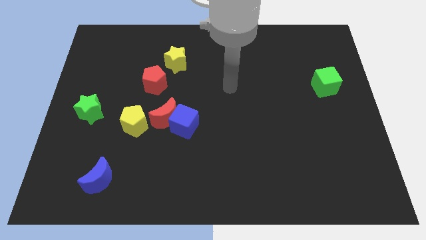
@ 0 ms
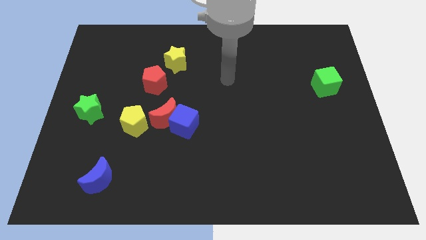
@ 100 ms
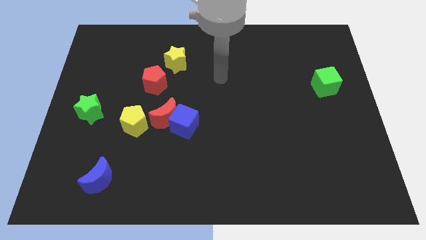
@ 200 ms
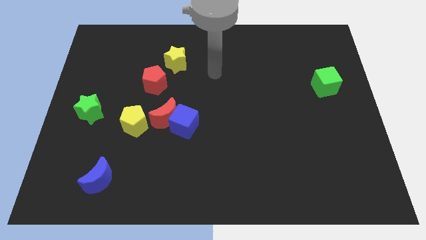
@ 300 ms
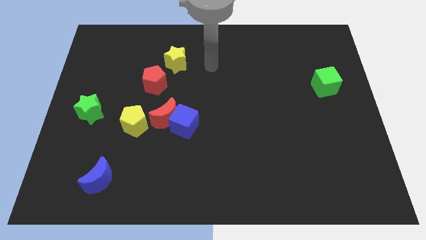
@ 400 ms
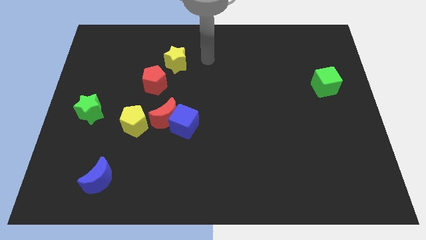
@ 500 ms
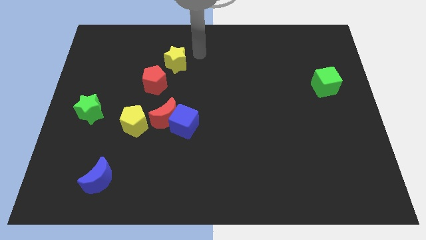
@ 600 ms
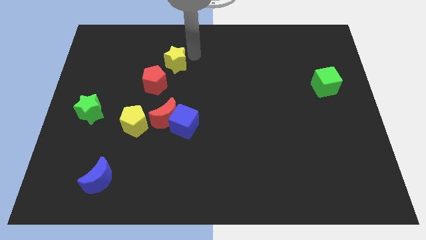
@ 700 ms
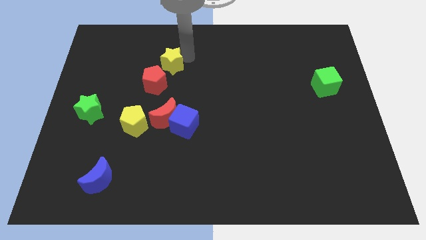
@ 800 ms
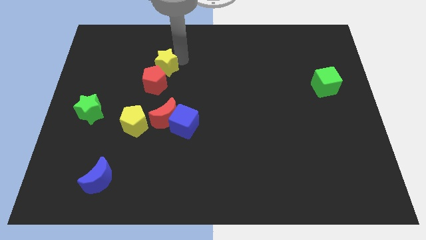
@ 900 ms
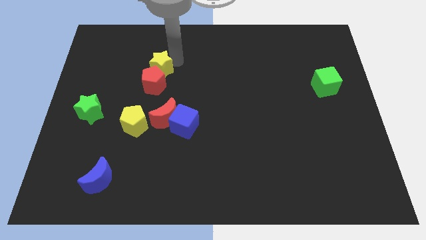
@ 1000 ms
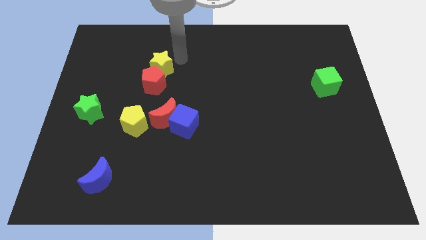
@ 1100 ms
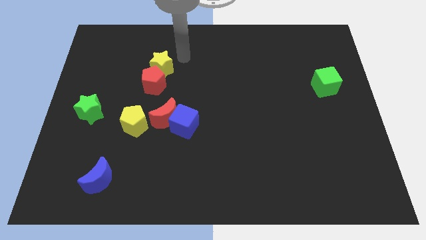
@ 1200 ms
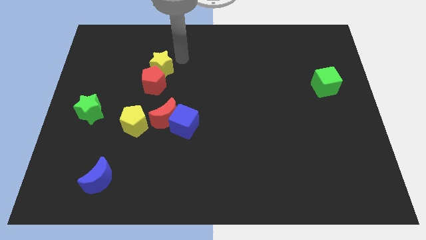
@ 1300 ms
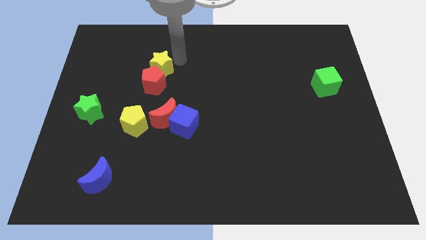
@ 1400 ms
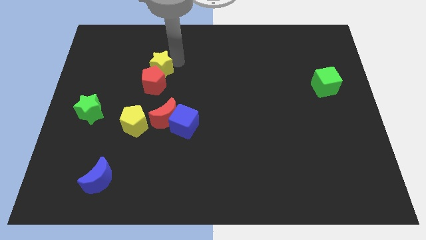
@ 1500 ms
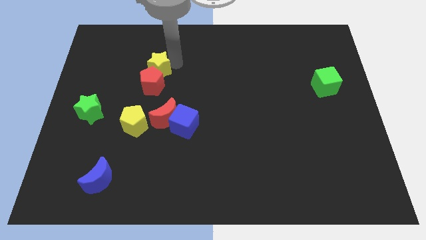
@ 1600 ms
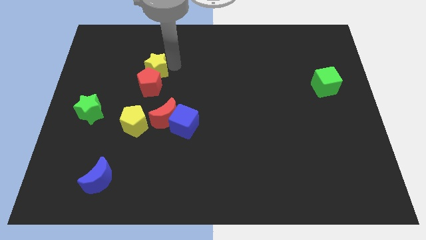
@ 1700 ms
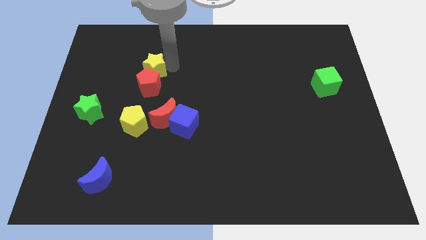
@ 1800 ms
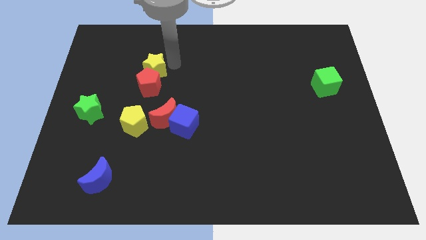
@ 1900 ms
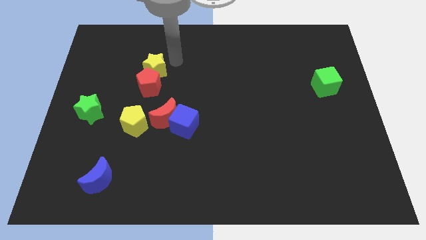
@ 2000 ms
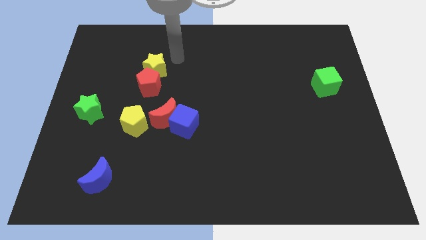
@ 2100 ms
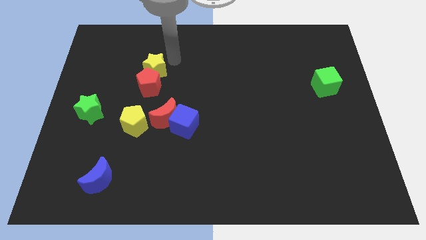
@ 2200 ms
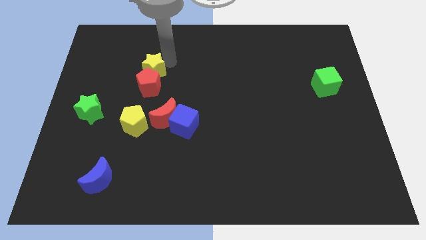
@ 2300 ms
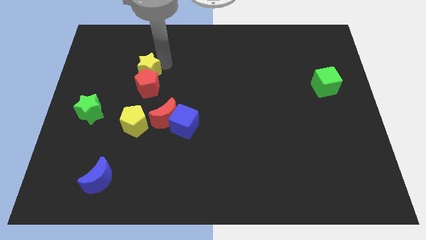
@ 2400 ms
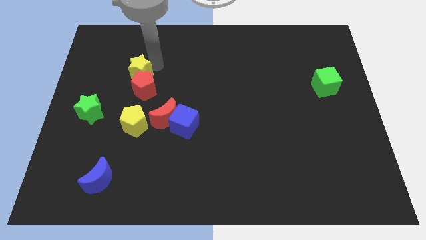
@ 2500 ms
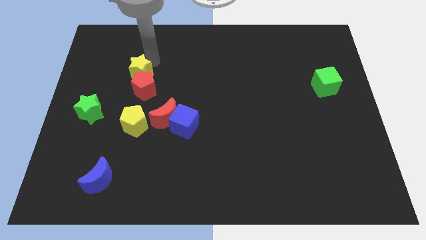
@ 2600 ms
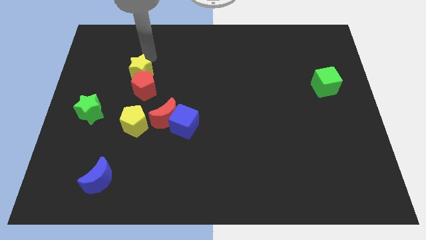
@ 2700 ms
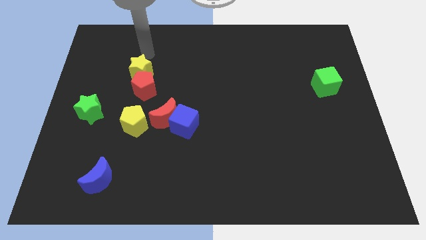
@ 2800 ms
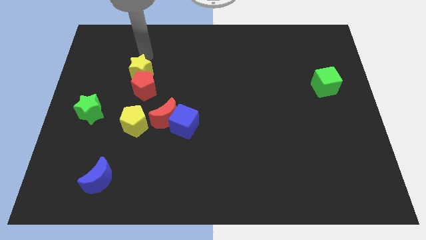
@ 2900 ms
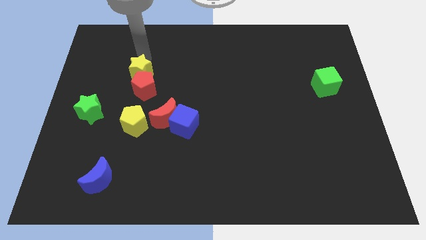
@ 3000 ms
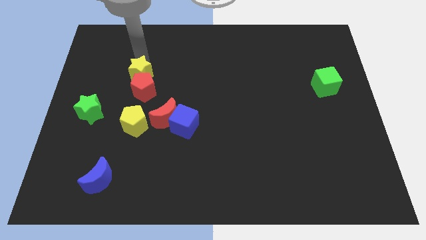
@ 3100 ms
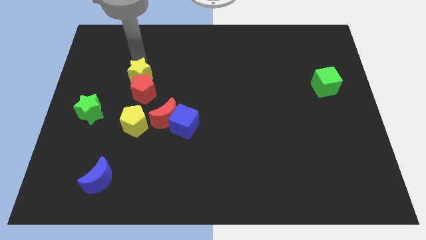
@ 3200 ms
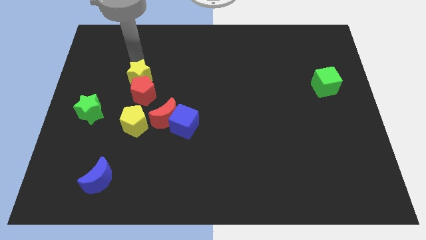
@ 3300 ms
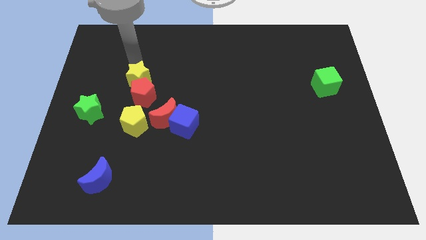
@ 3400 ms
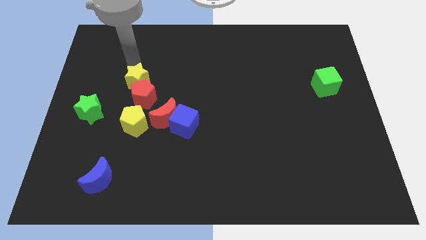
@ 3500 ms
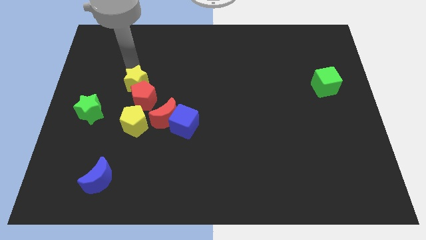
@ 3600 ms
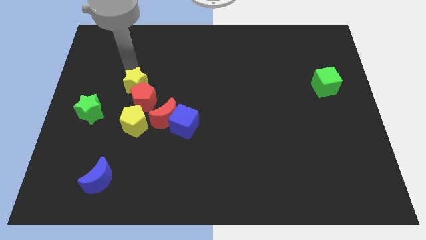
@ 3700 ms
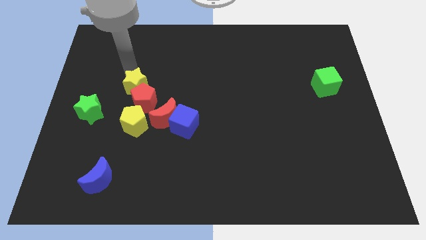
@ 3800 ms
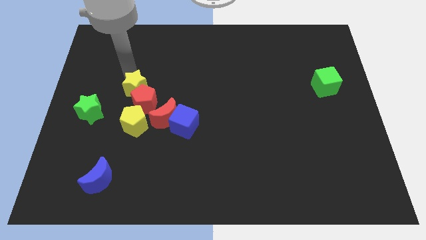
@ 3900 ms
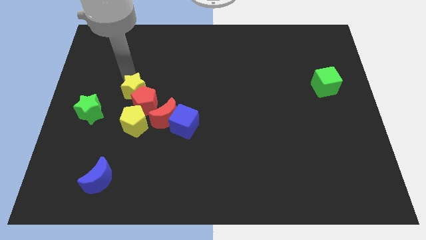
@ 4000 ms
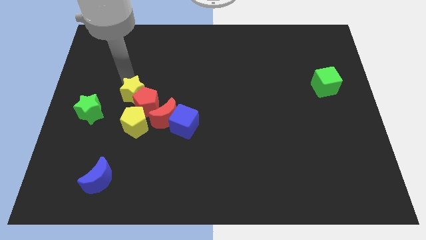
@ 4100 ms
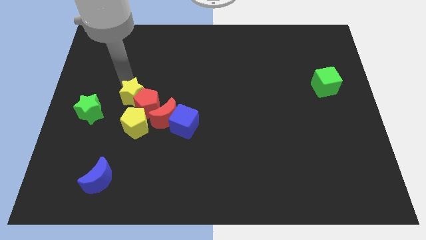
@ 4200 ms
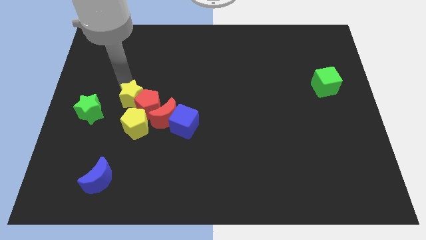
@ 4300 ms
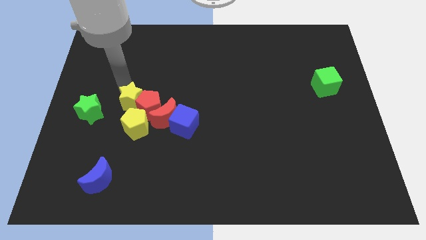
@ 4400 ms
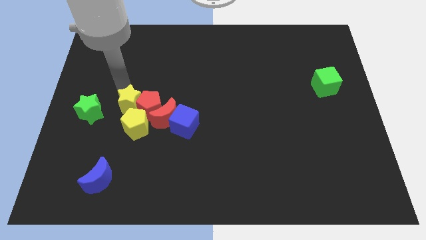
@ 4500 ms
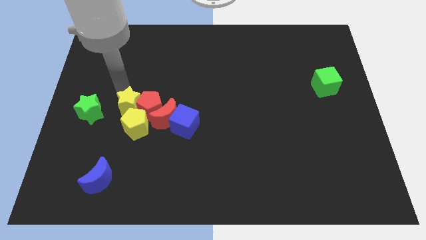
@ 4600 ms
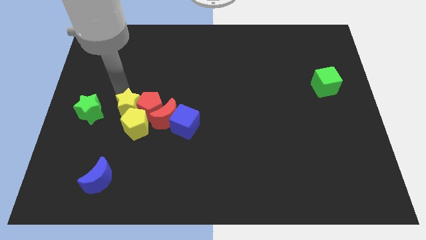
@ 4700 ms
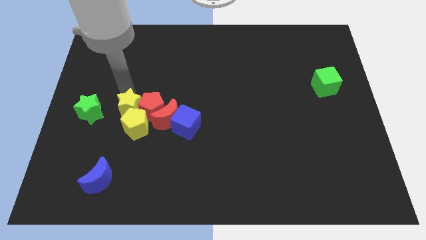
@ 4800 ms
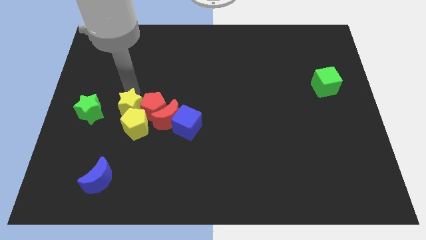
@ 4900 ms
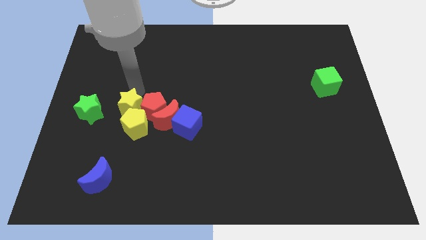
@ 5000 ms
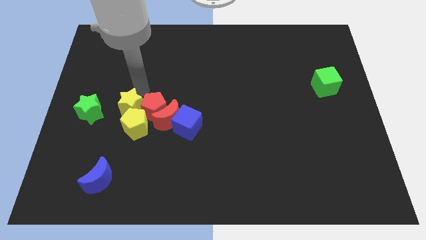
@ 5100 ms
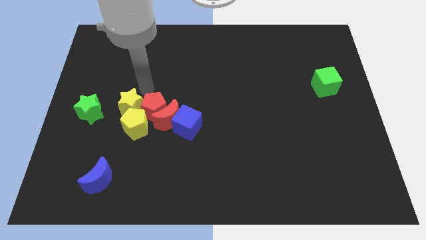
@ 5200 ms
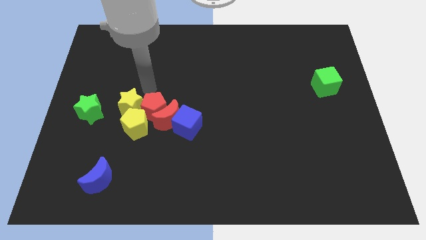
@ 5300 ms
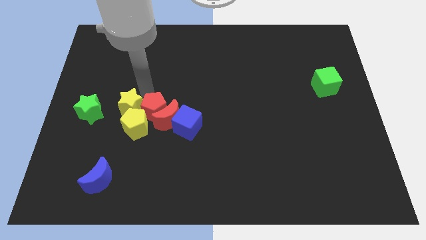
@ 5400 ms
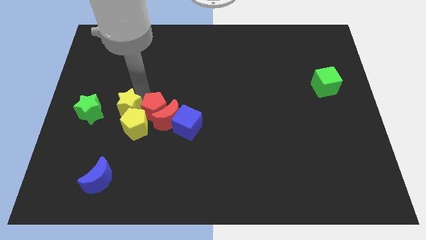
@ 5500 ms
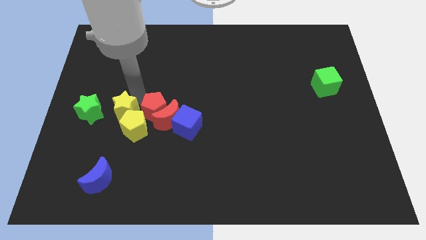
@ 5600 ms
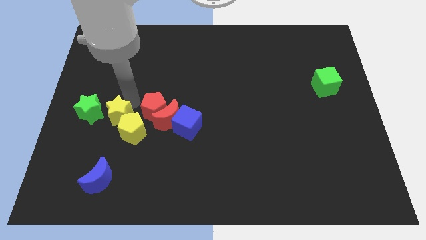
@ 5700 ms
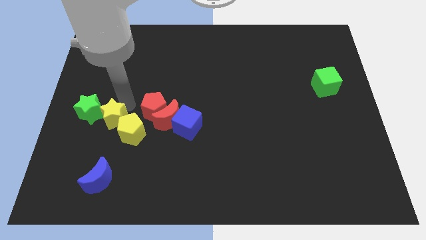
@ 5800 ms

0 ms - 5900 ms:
put the yellow star above the blue moon

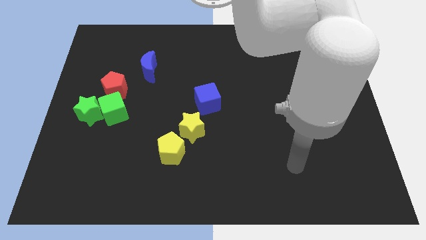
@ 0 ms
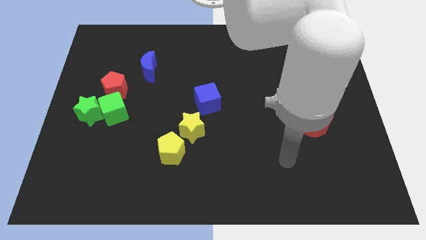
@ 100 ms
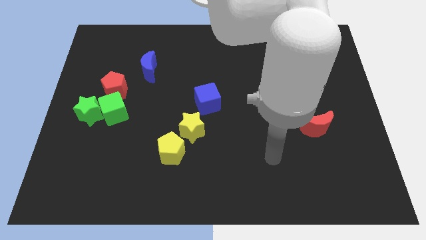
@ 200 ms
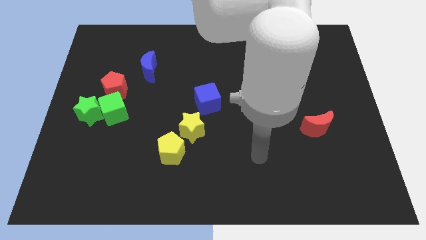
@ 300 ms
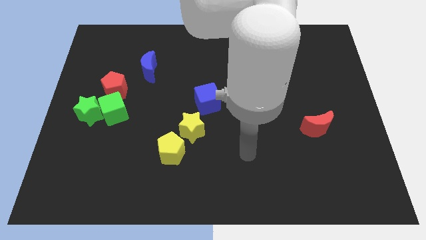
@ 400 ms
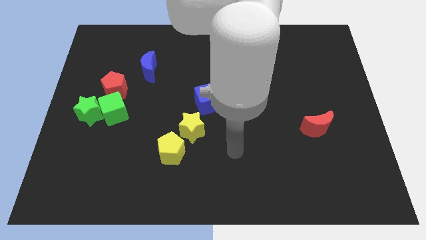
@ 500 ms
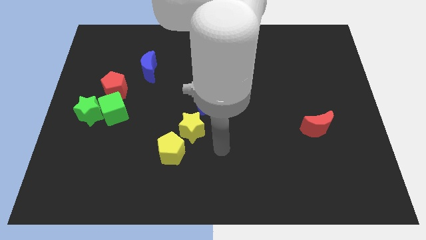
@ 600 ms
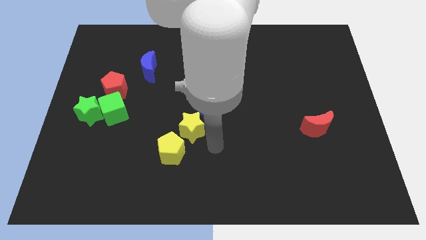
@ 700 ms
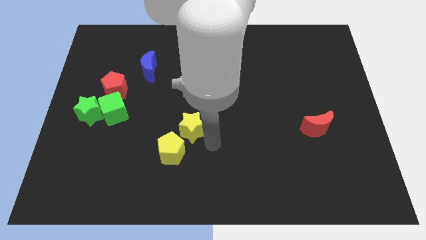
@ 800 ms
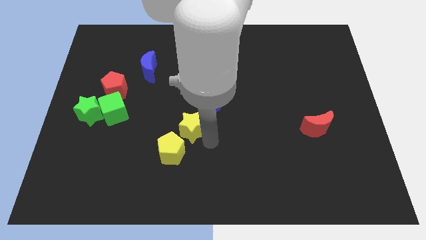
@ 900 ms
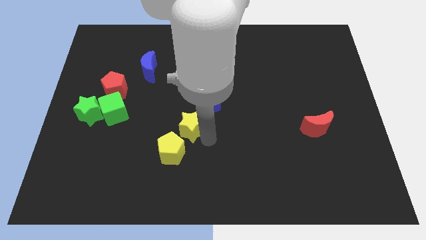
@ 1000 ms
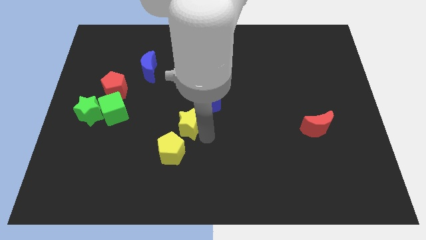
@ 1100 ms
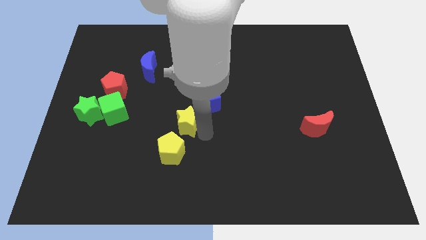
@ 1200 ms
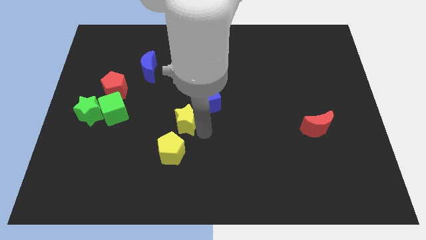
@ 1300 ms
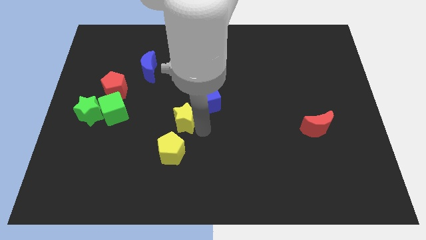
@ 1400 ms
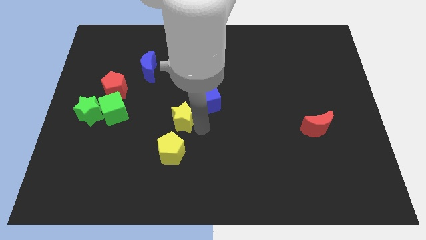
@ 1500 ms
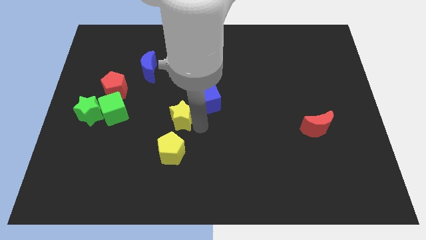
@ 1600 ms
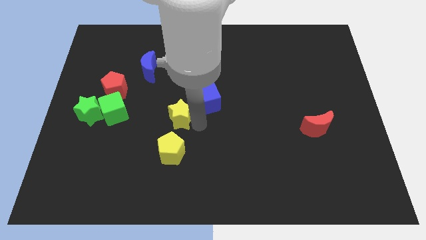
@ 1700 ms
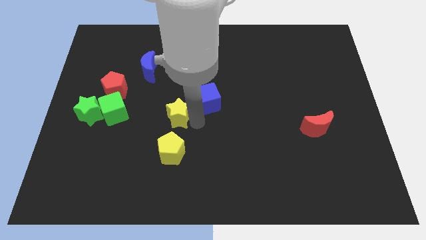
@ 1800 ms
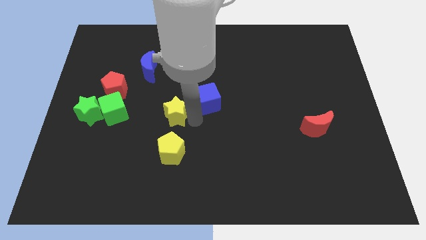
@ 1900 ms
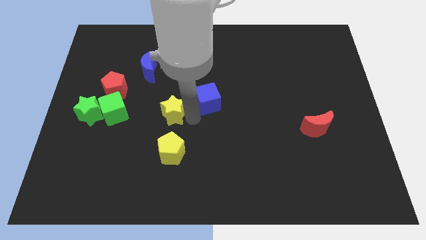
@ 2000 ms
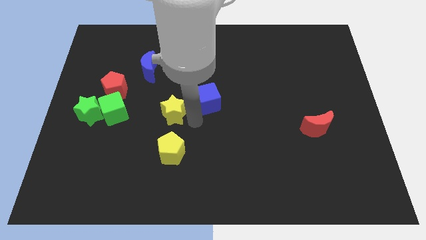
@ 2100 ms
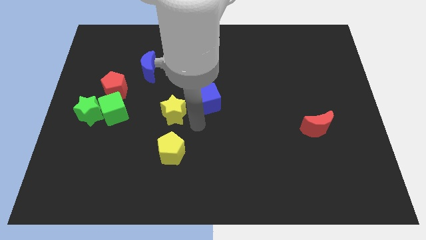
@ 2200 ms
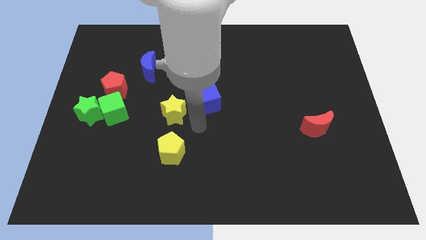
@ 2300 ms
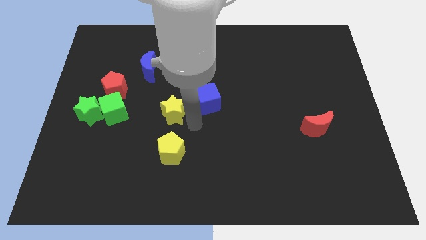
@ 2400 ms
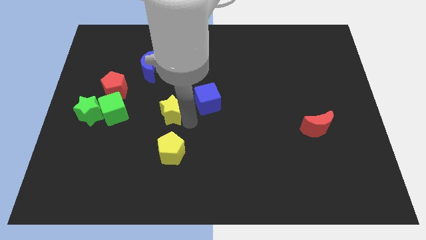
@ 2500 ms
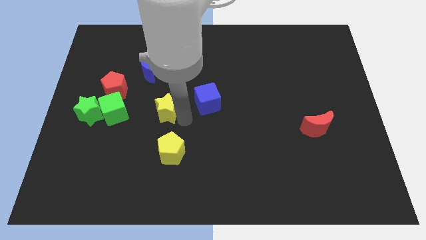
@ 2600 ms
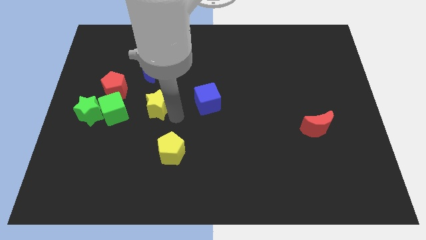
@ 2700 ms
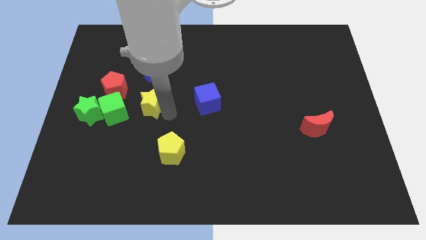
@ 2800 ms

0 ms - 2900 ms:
slide the yellow star to the top right of the green cube
